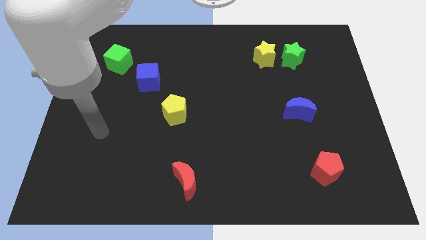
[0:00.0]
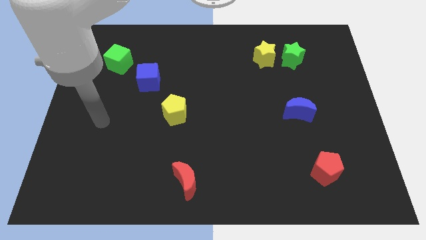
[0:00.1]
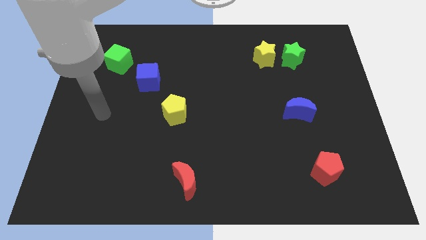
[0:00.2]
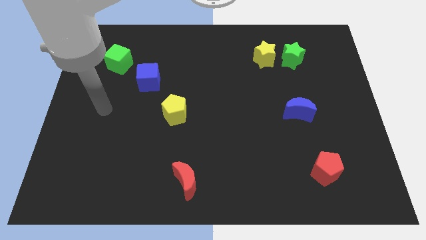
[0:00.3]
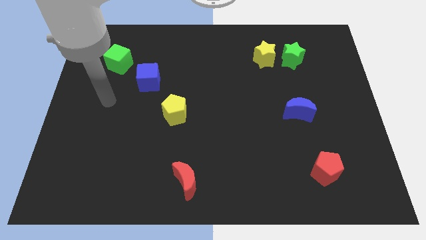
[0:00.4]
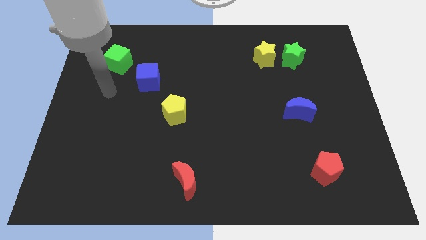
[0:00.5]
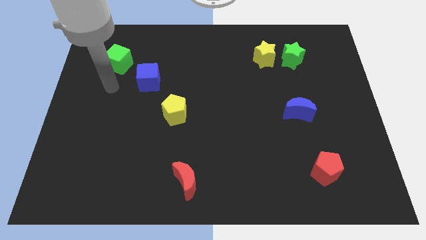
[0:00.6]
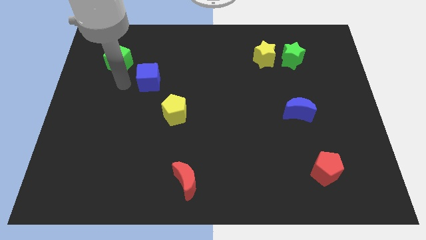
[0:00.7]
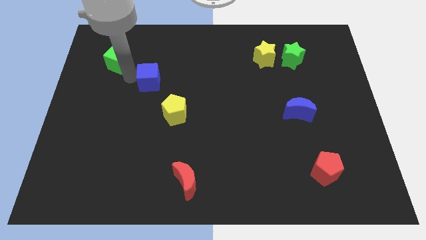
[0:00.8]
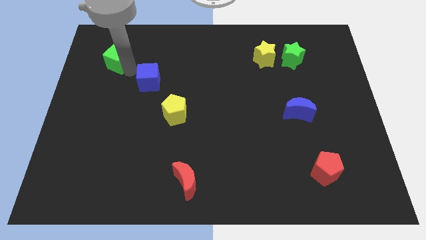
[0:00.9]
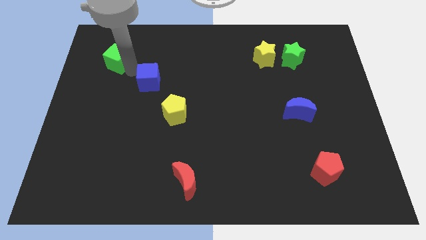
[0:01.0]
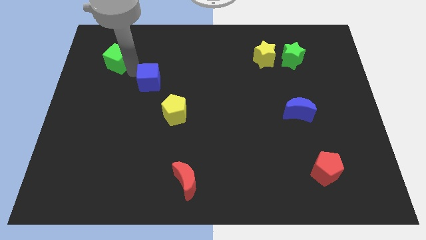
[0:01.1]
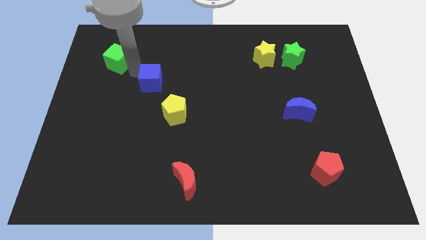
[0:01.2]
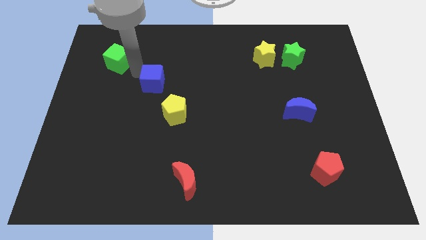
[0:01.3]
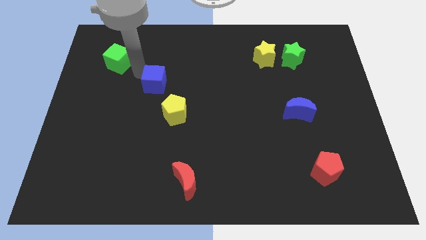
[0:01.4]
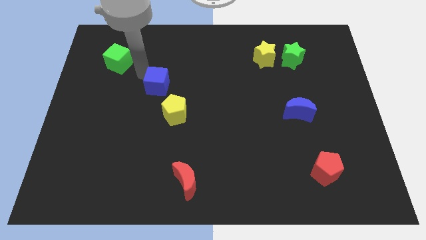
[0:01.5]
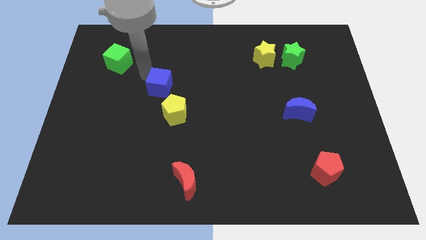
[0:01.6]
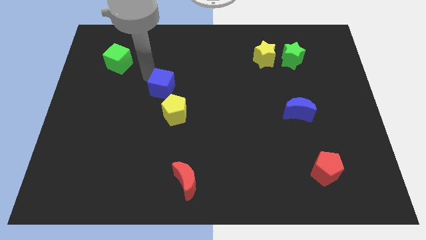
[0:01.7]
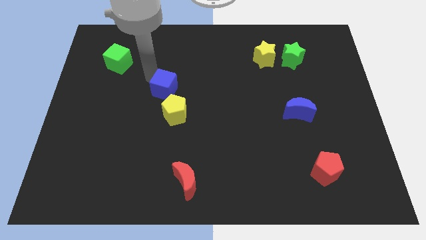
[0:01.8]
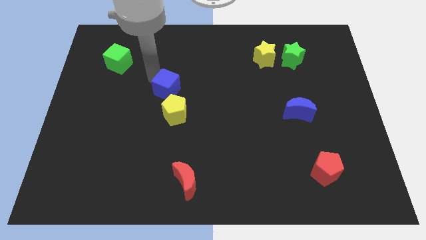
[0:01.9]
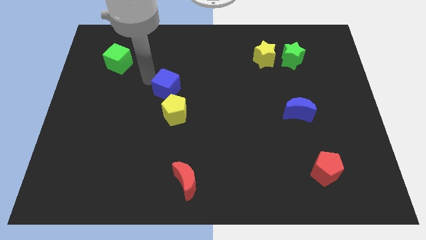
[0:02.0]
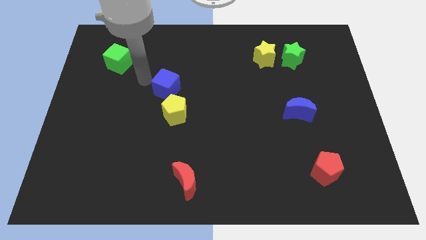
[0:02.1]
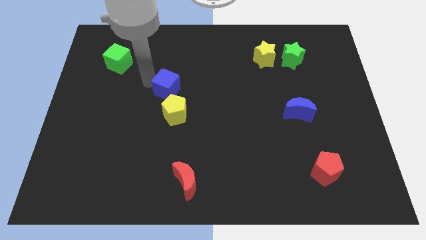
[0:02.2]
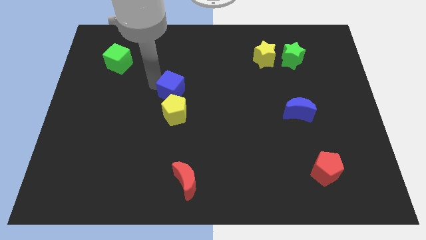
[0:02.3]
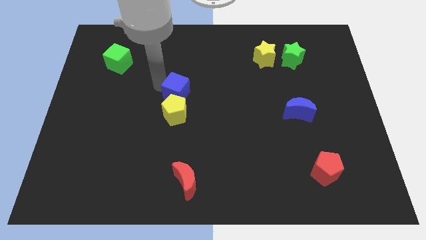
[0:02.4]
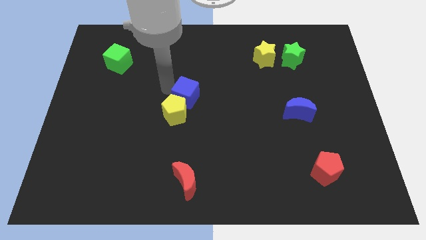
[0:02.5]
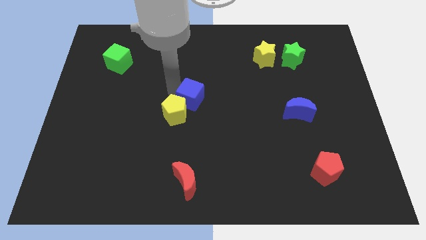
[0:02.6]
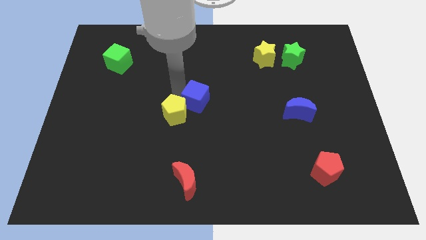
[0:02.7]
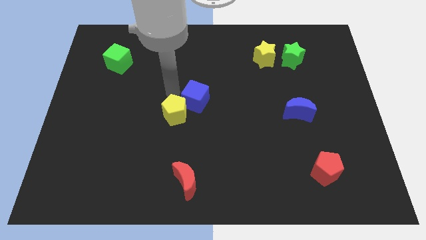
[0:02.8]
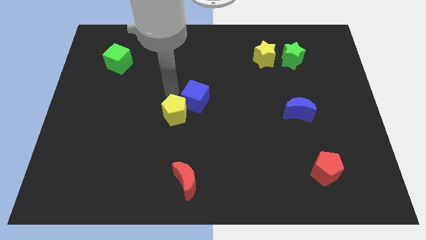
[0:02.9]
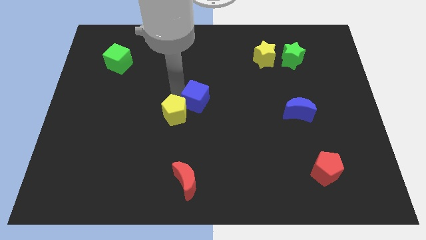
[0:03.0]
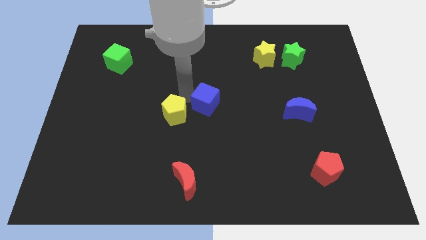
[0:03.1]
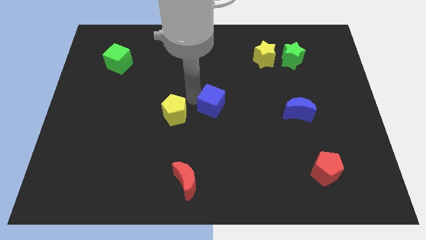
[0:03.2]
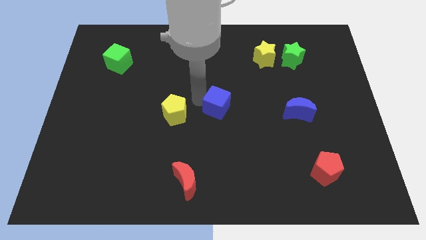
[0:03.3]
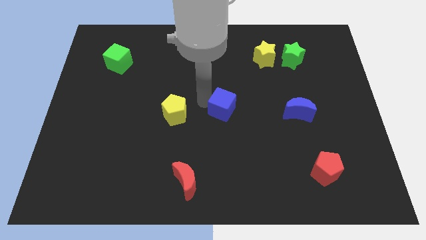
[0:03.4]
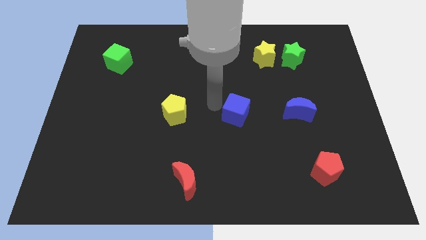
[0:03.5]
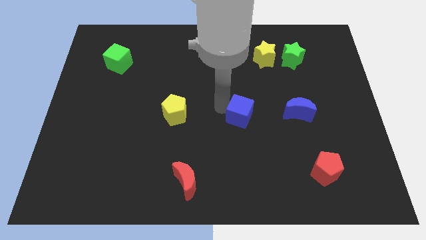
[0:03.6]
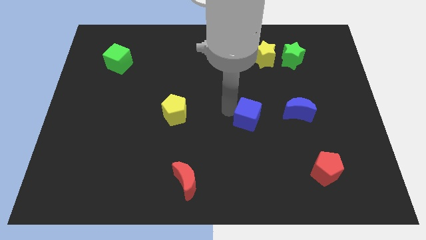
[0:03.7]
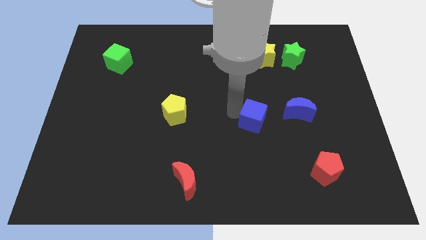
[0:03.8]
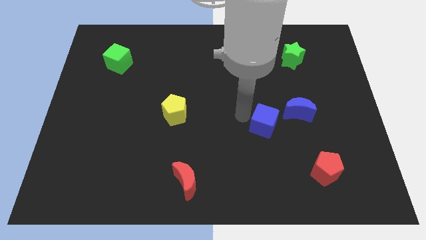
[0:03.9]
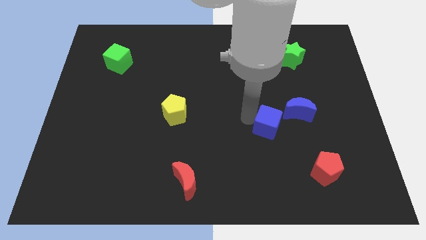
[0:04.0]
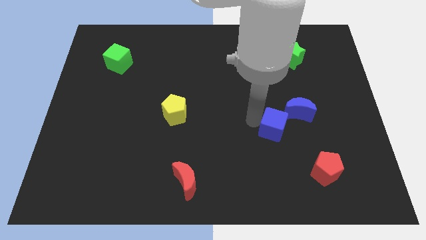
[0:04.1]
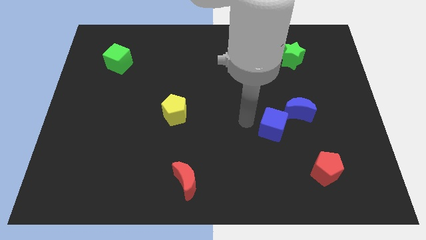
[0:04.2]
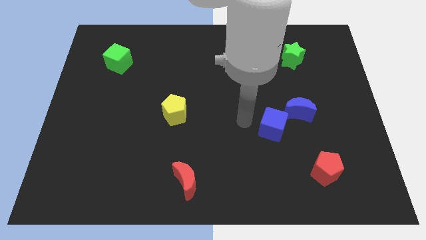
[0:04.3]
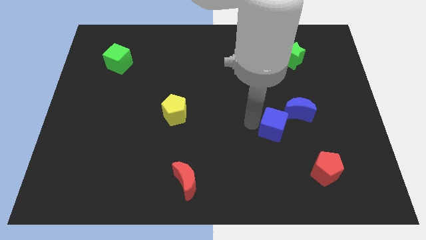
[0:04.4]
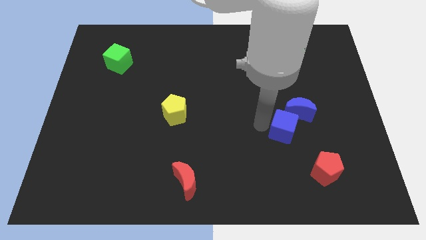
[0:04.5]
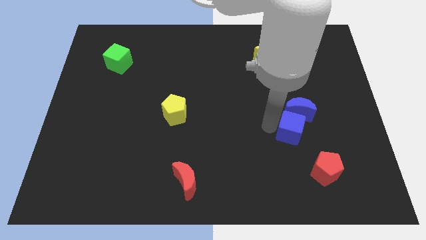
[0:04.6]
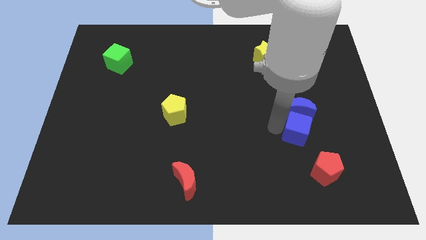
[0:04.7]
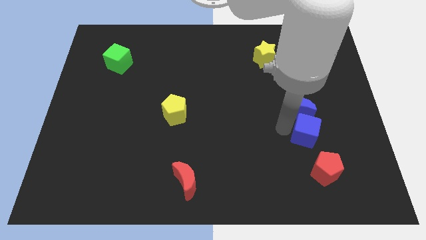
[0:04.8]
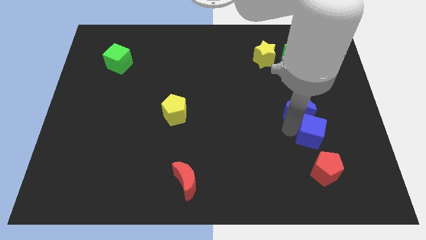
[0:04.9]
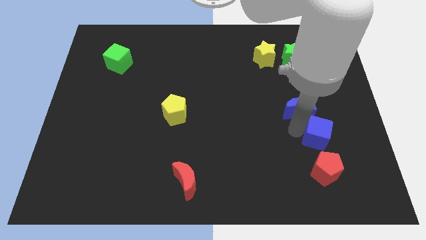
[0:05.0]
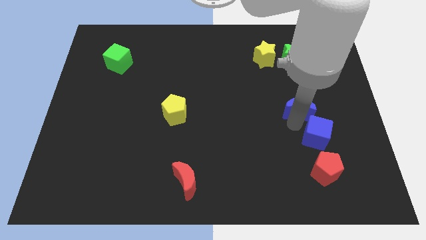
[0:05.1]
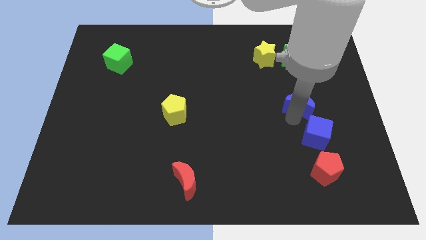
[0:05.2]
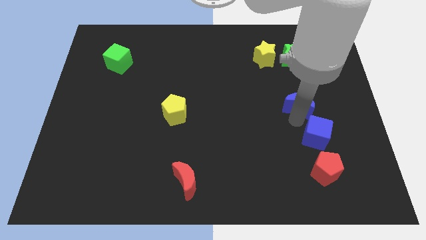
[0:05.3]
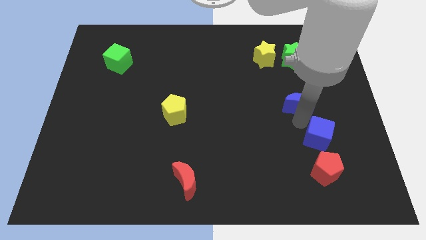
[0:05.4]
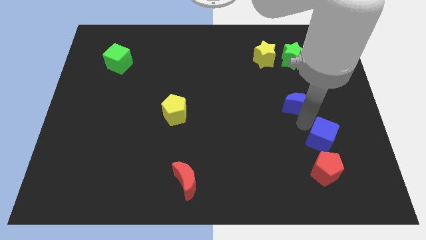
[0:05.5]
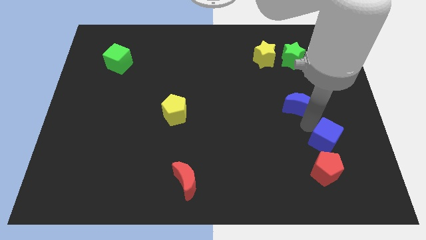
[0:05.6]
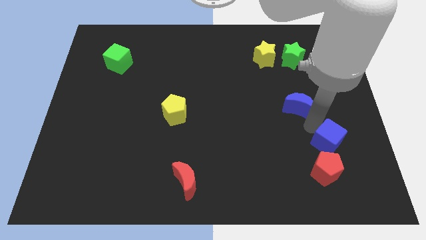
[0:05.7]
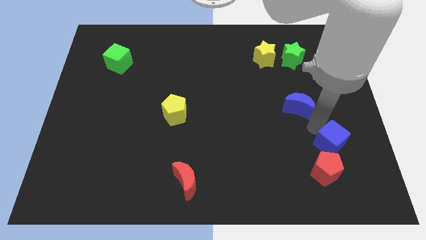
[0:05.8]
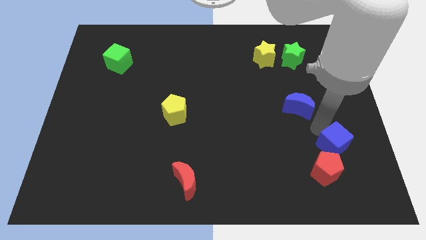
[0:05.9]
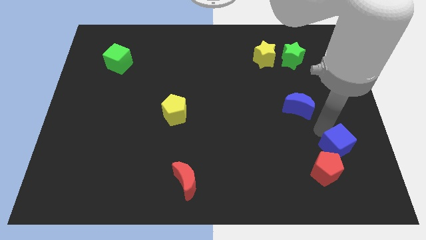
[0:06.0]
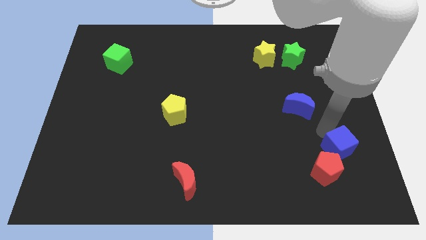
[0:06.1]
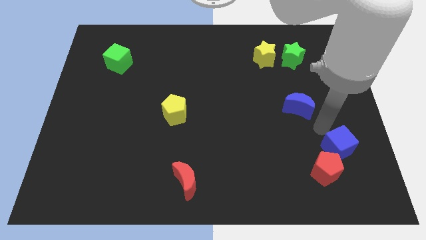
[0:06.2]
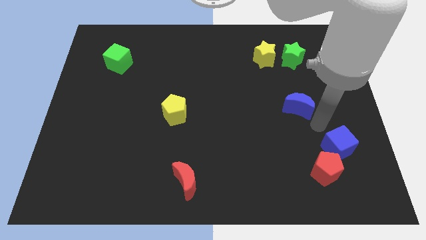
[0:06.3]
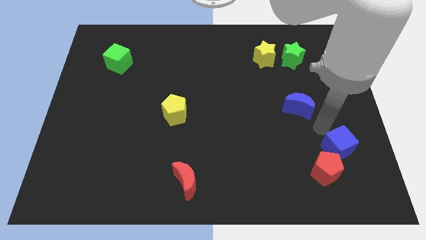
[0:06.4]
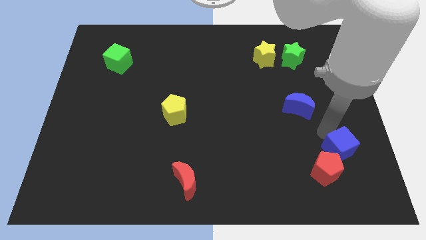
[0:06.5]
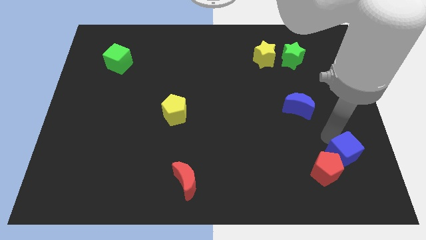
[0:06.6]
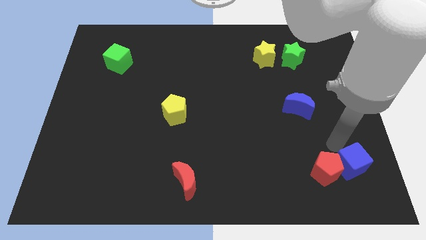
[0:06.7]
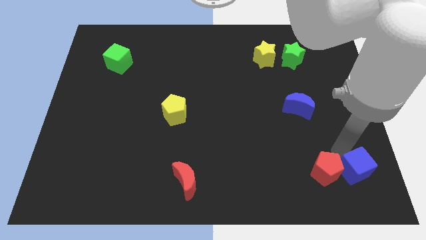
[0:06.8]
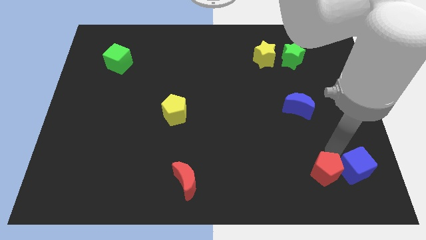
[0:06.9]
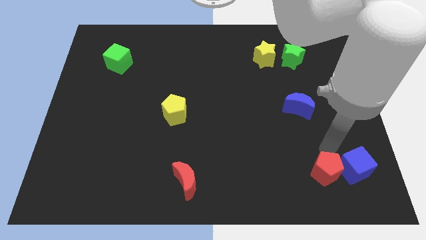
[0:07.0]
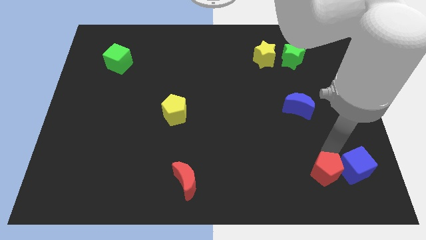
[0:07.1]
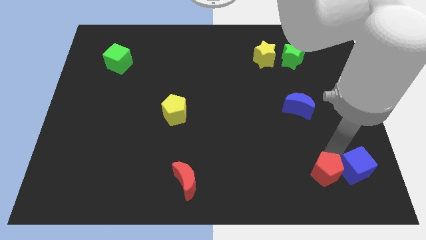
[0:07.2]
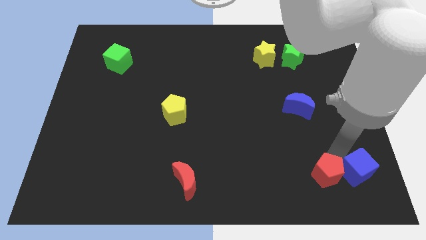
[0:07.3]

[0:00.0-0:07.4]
move the blue cube to the lower right corner
